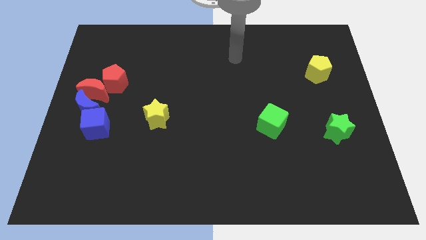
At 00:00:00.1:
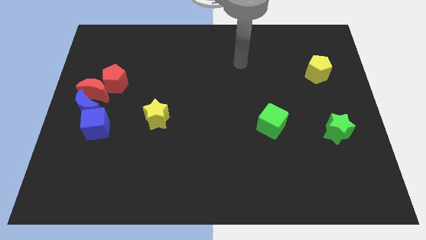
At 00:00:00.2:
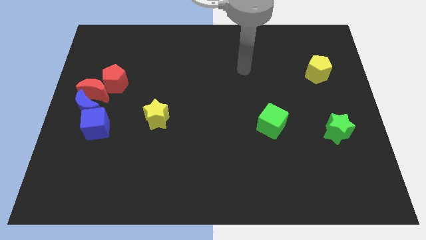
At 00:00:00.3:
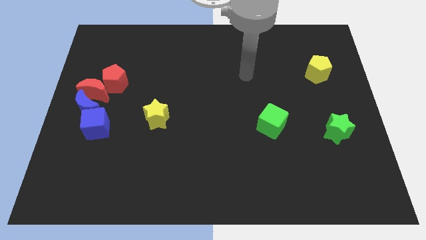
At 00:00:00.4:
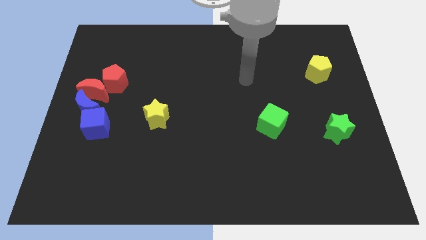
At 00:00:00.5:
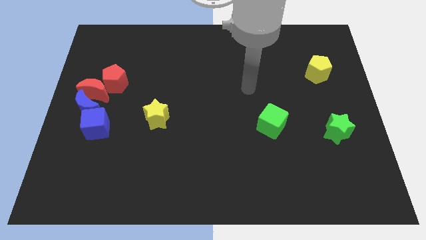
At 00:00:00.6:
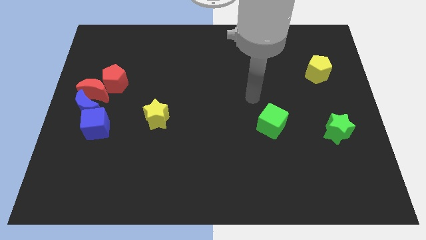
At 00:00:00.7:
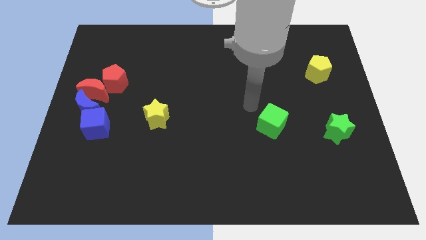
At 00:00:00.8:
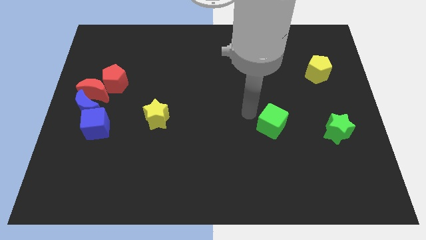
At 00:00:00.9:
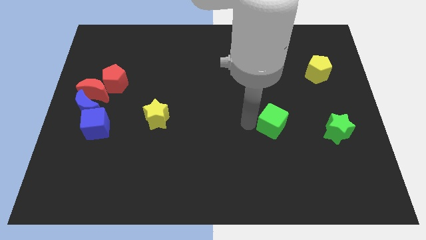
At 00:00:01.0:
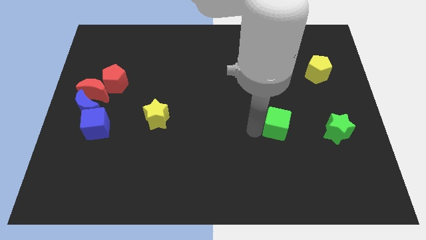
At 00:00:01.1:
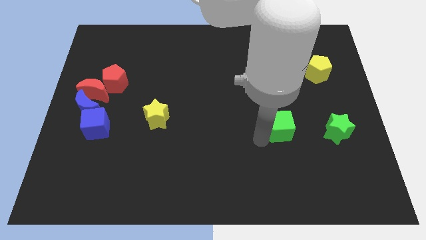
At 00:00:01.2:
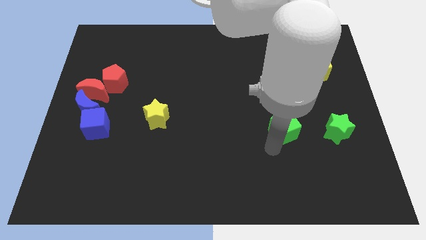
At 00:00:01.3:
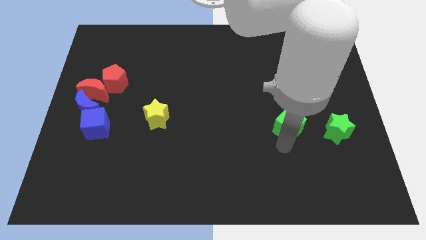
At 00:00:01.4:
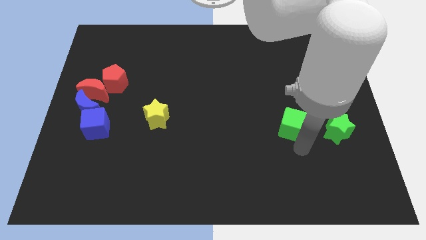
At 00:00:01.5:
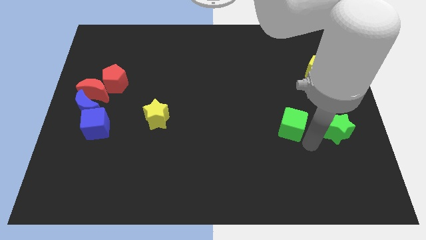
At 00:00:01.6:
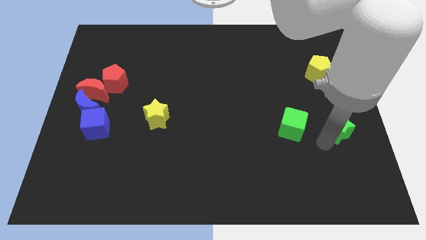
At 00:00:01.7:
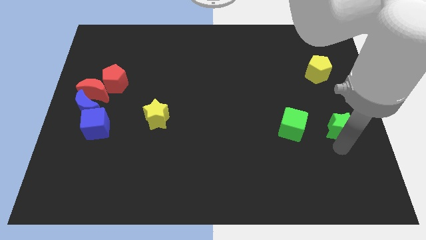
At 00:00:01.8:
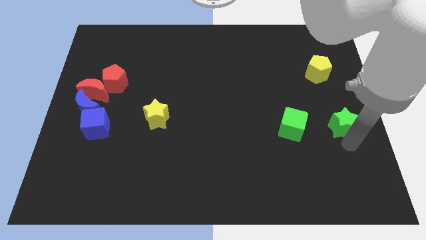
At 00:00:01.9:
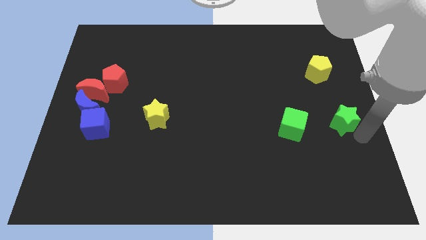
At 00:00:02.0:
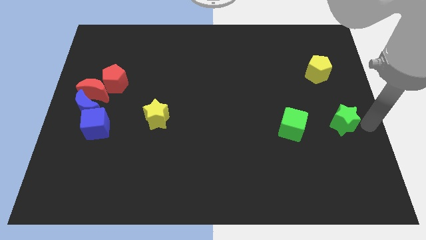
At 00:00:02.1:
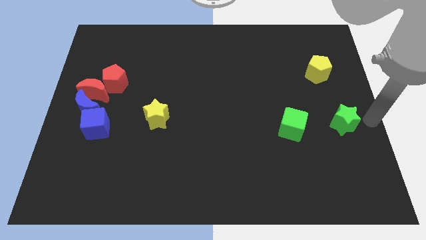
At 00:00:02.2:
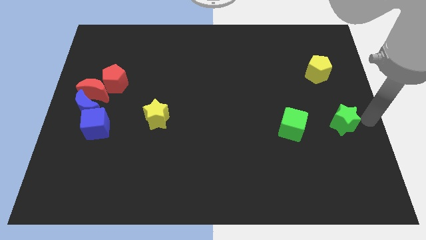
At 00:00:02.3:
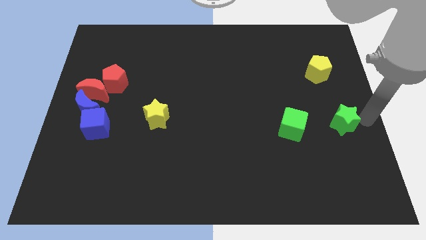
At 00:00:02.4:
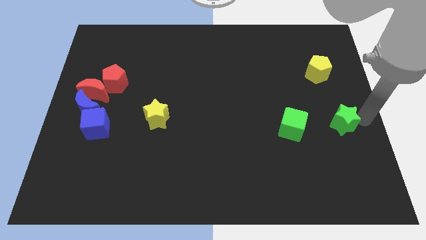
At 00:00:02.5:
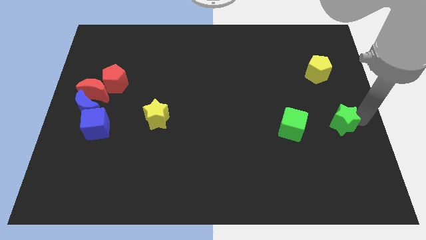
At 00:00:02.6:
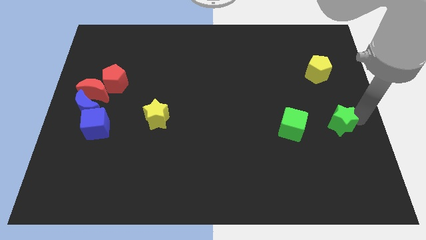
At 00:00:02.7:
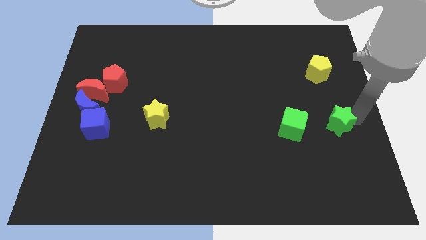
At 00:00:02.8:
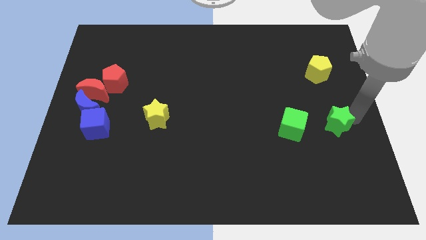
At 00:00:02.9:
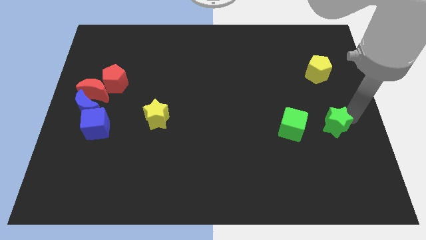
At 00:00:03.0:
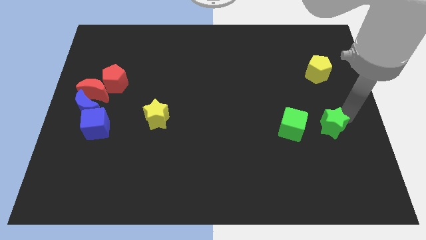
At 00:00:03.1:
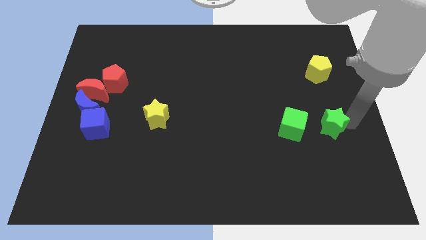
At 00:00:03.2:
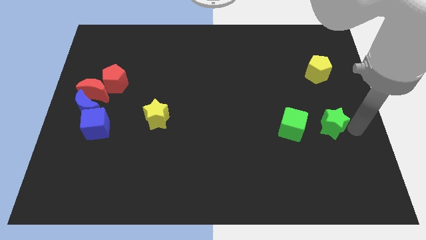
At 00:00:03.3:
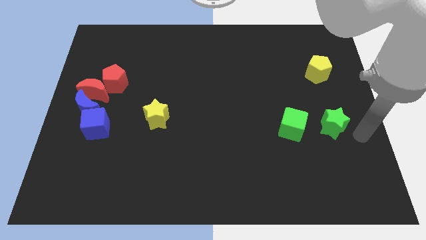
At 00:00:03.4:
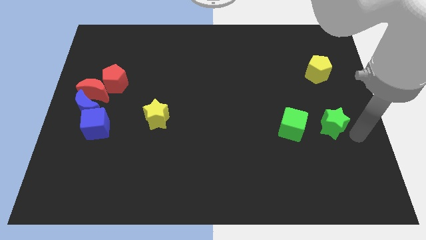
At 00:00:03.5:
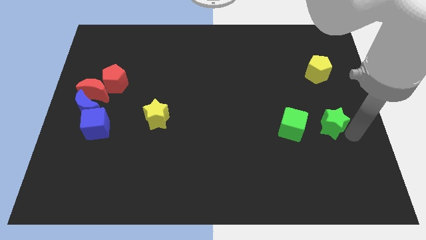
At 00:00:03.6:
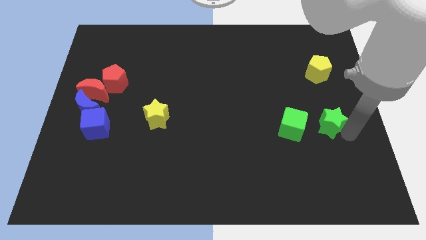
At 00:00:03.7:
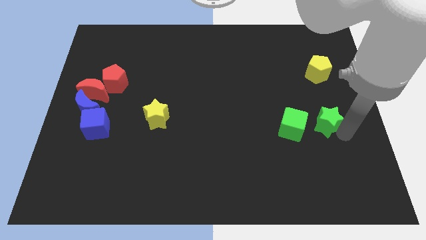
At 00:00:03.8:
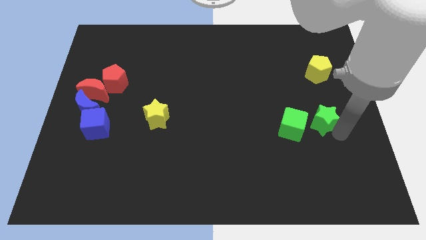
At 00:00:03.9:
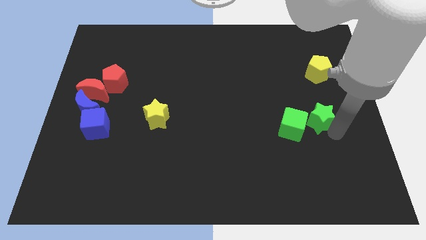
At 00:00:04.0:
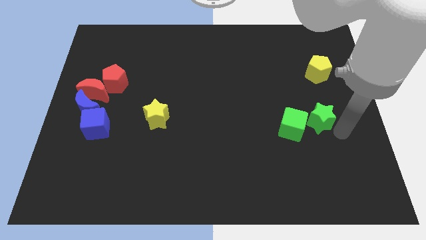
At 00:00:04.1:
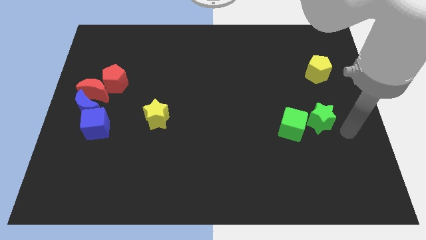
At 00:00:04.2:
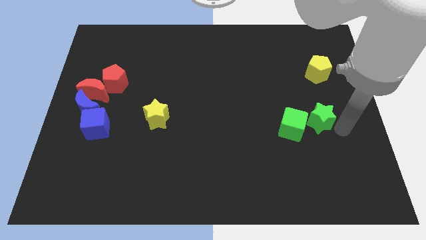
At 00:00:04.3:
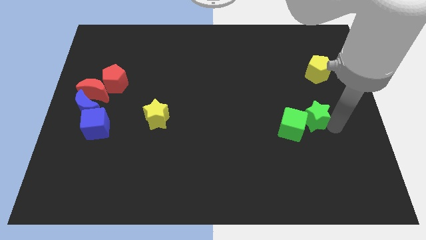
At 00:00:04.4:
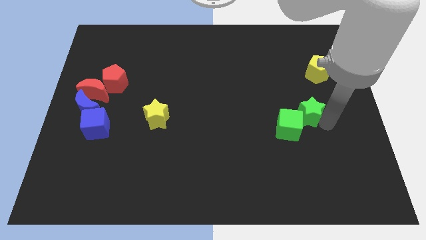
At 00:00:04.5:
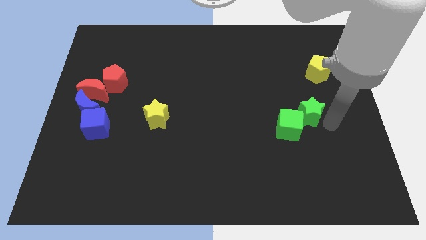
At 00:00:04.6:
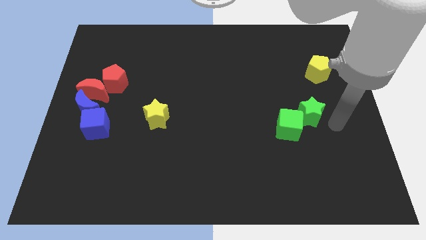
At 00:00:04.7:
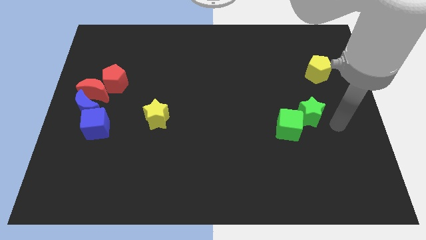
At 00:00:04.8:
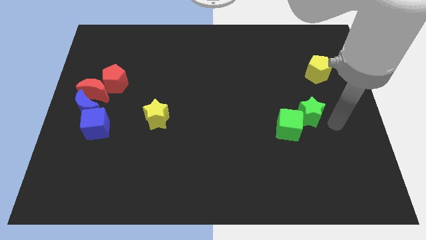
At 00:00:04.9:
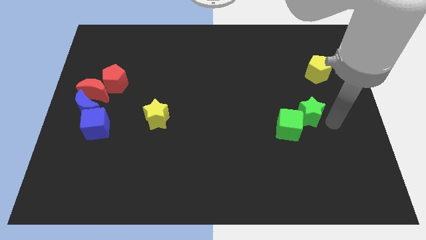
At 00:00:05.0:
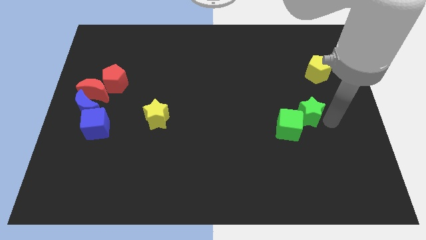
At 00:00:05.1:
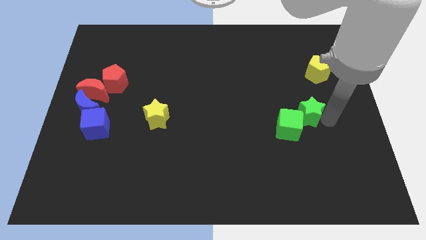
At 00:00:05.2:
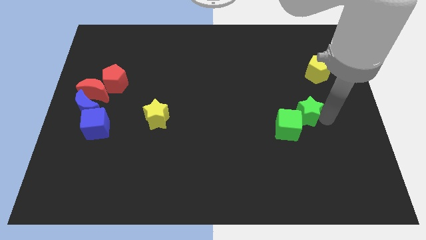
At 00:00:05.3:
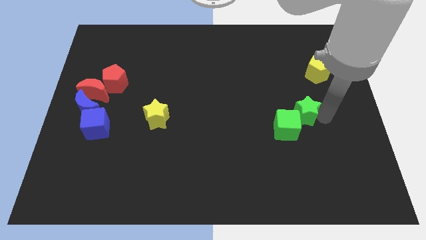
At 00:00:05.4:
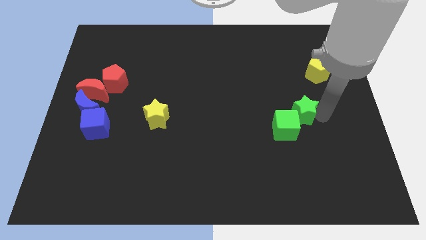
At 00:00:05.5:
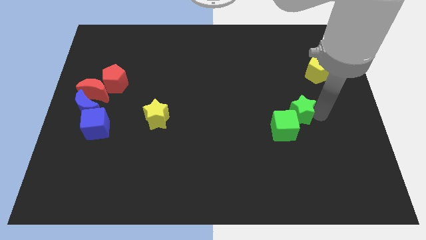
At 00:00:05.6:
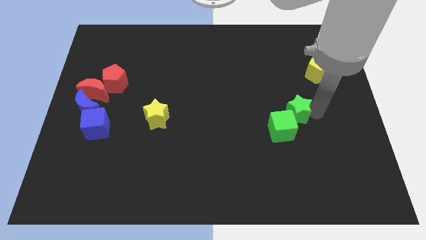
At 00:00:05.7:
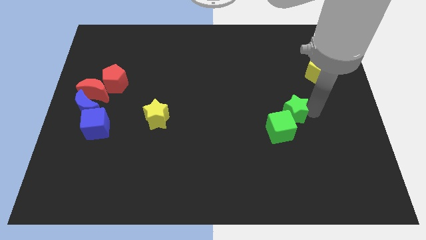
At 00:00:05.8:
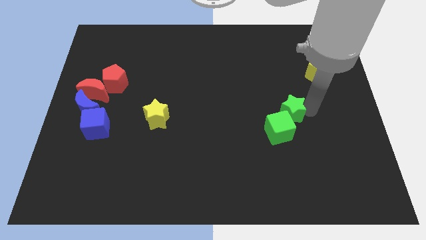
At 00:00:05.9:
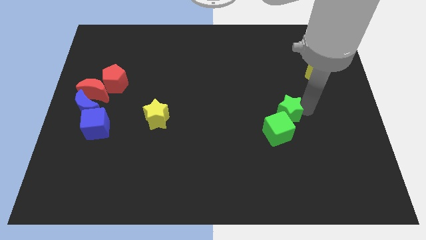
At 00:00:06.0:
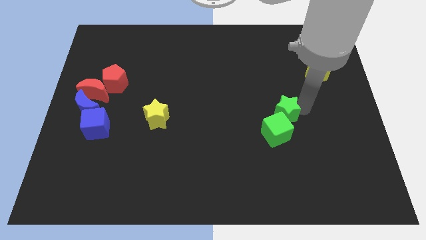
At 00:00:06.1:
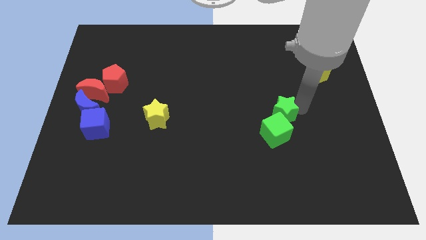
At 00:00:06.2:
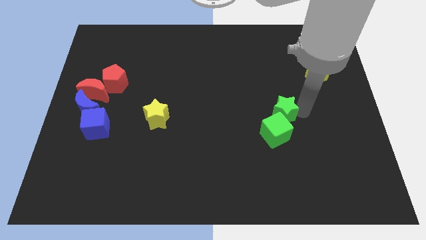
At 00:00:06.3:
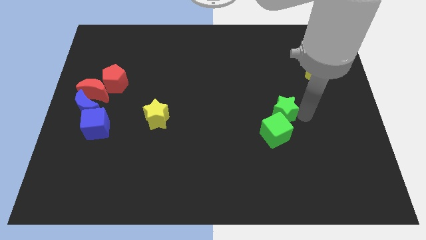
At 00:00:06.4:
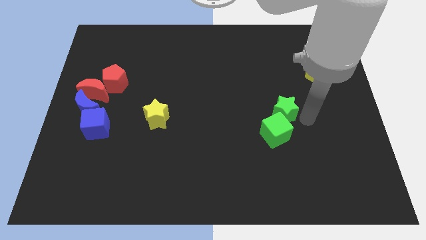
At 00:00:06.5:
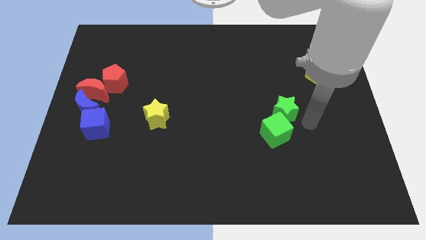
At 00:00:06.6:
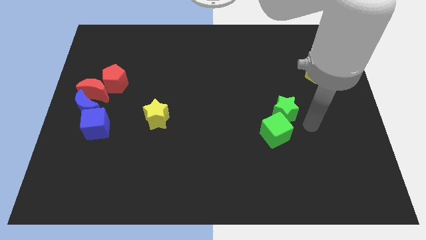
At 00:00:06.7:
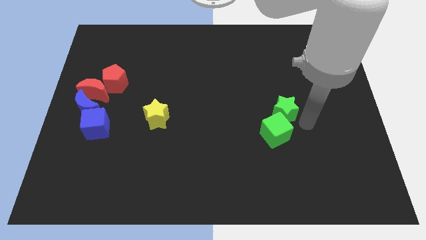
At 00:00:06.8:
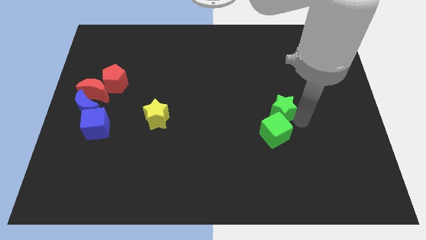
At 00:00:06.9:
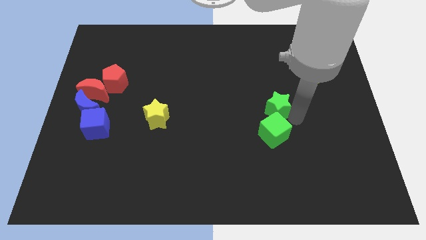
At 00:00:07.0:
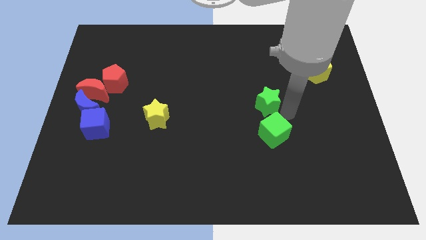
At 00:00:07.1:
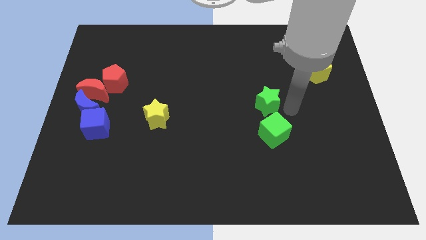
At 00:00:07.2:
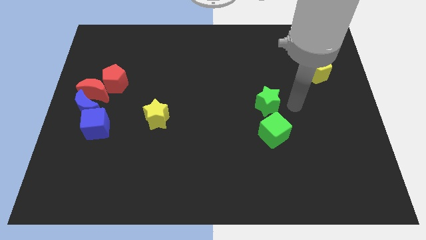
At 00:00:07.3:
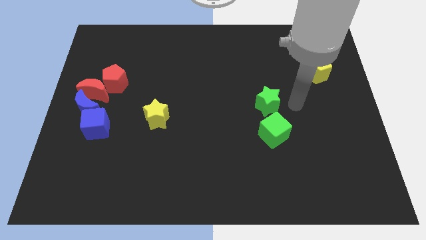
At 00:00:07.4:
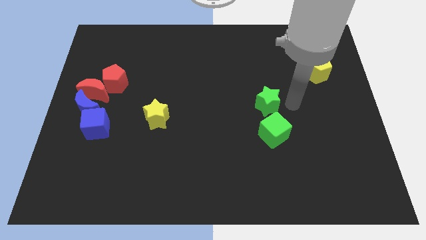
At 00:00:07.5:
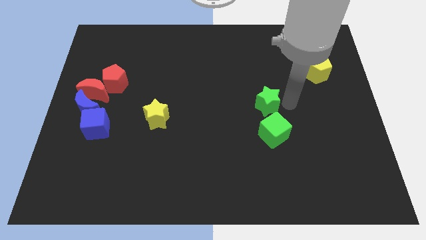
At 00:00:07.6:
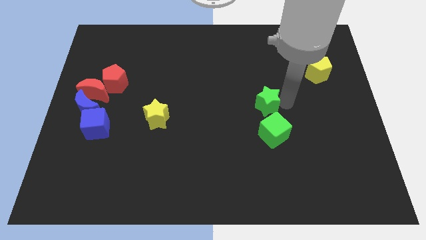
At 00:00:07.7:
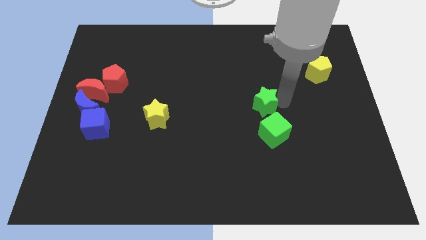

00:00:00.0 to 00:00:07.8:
slide the green star to the middle
